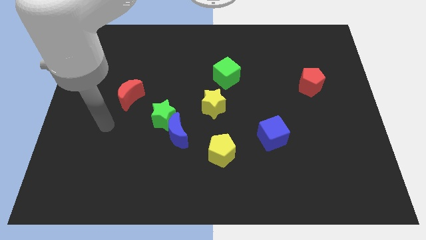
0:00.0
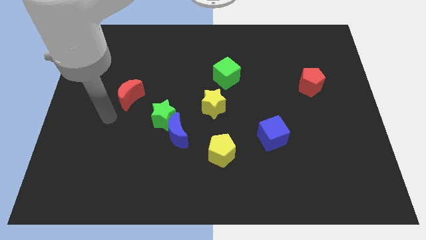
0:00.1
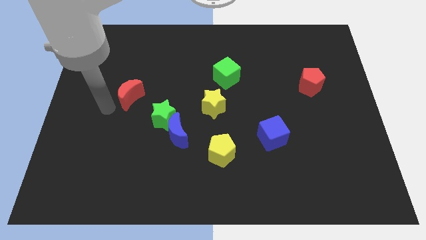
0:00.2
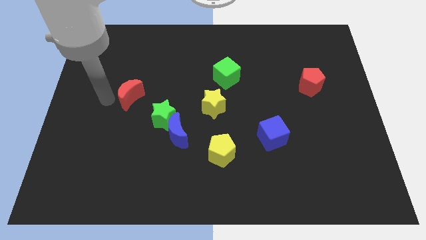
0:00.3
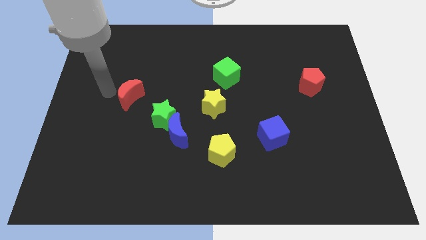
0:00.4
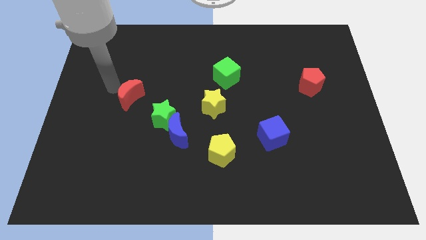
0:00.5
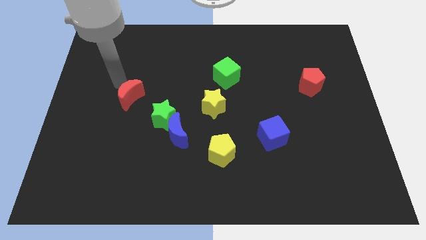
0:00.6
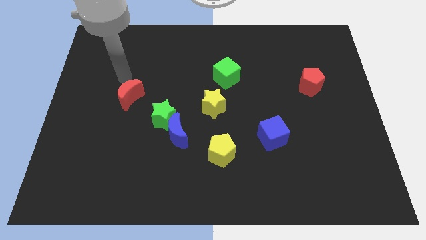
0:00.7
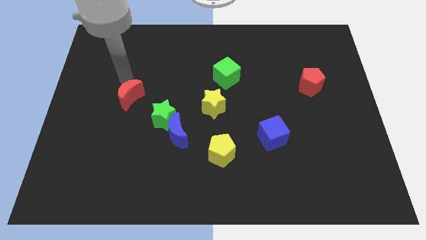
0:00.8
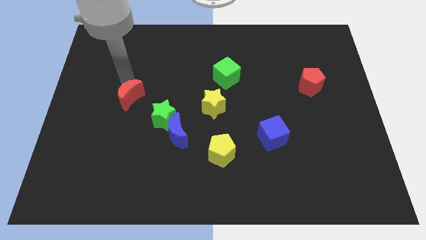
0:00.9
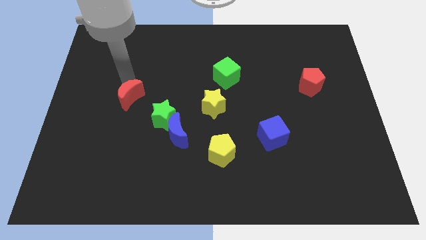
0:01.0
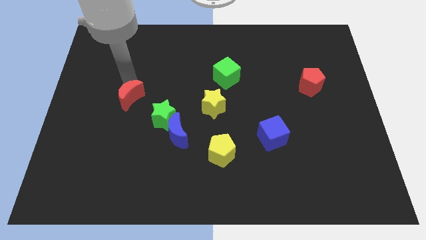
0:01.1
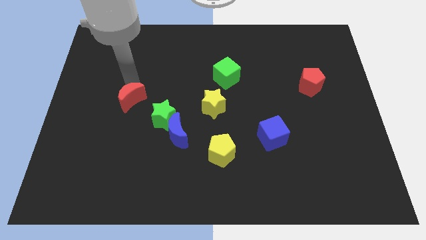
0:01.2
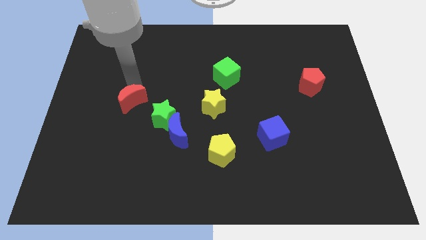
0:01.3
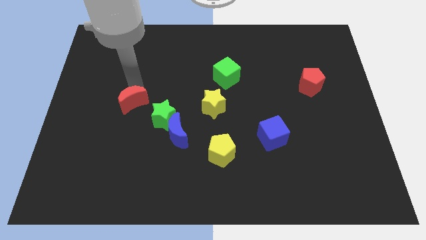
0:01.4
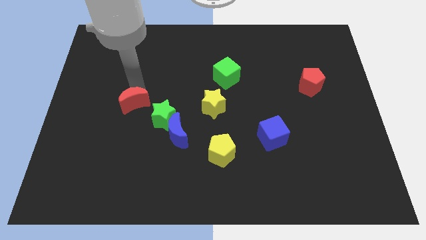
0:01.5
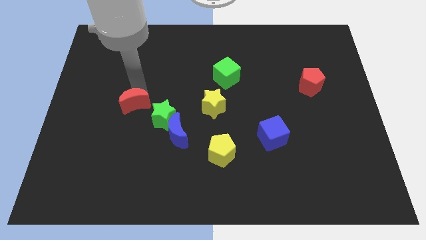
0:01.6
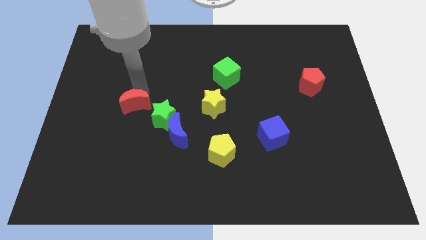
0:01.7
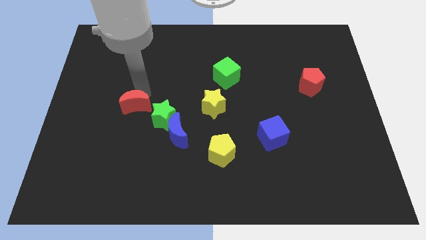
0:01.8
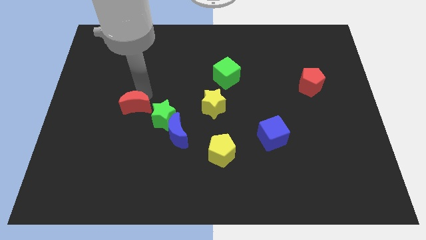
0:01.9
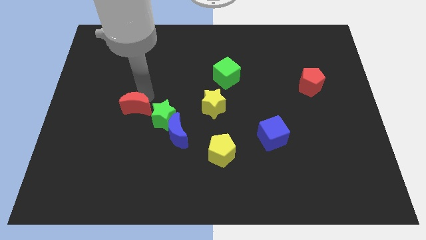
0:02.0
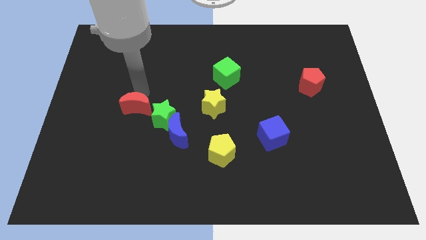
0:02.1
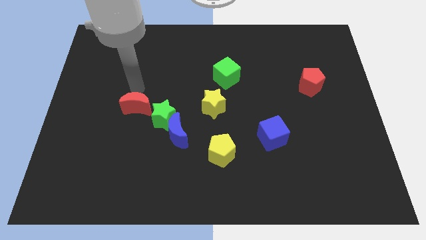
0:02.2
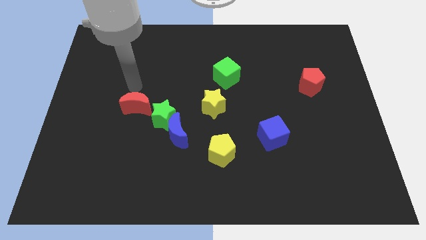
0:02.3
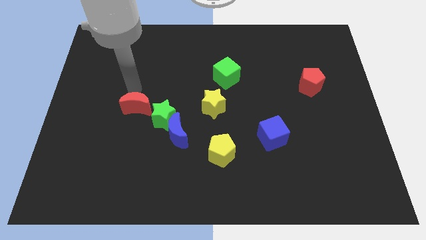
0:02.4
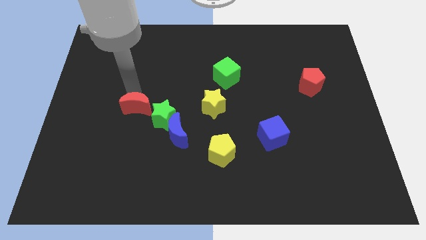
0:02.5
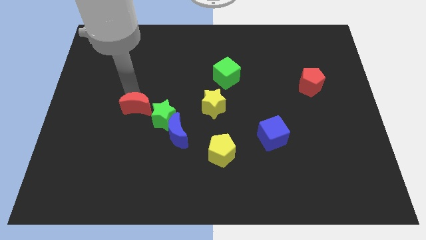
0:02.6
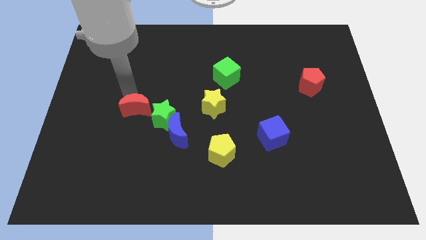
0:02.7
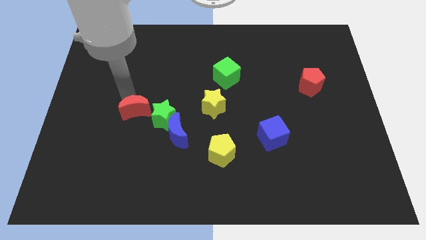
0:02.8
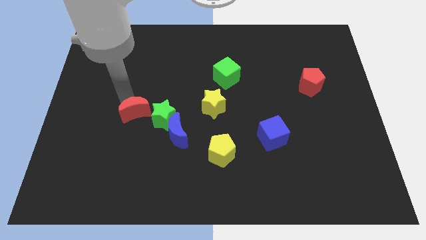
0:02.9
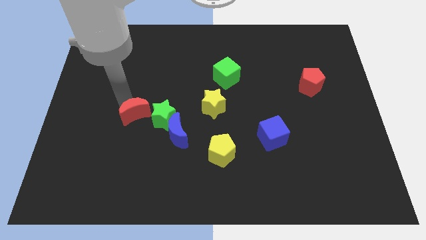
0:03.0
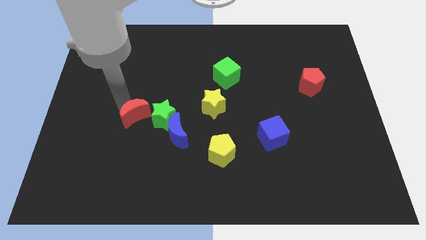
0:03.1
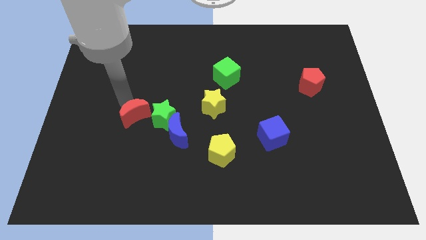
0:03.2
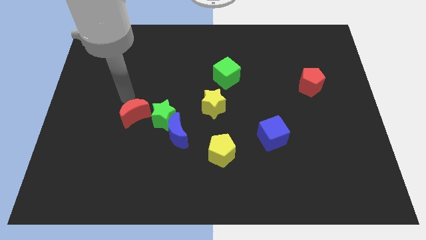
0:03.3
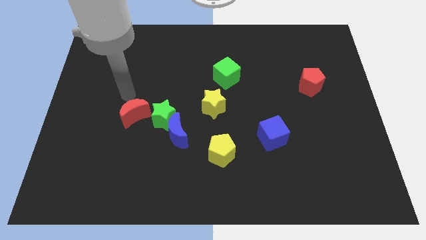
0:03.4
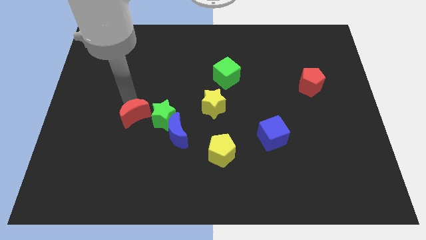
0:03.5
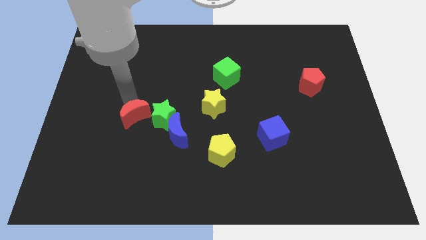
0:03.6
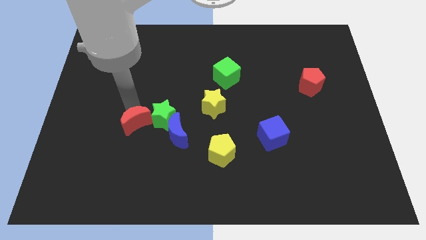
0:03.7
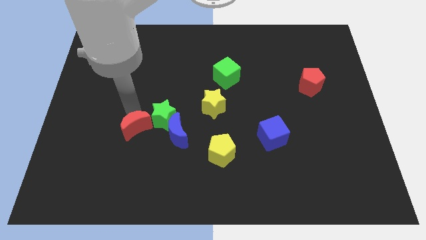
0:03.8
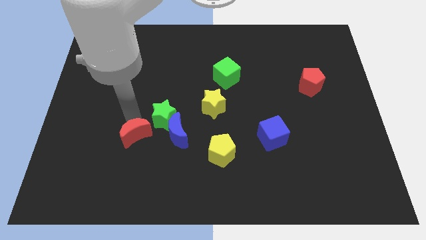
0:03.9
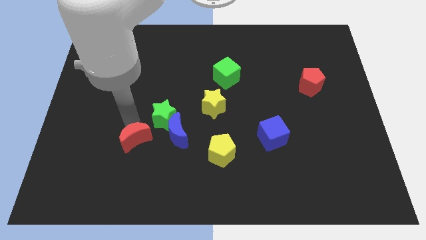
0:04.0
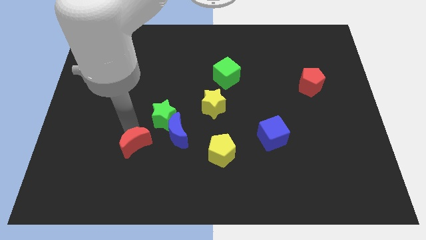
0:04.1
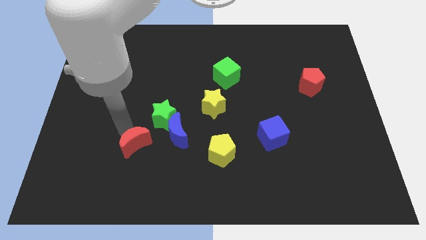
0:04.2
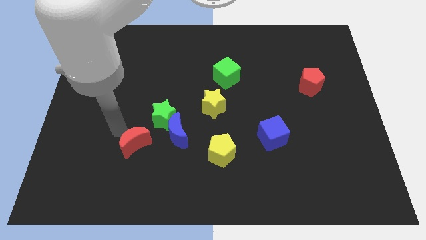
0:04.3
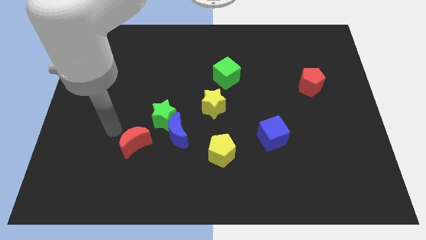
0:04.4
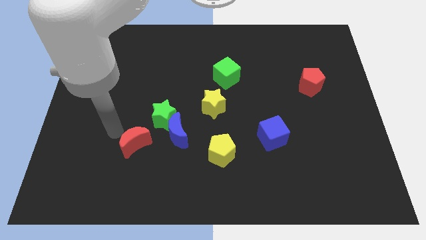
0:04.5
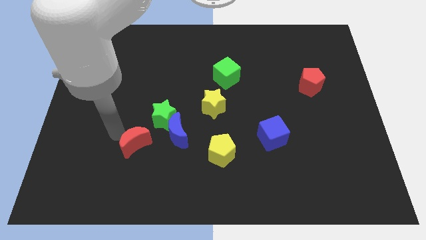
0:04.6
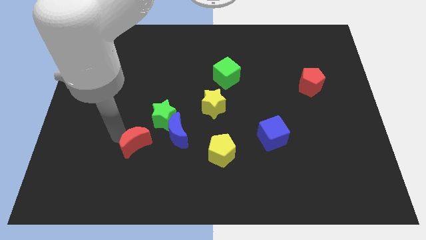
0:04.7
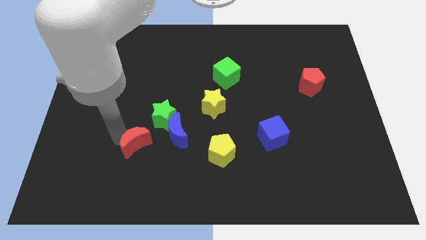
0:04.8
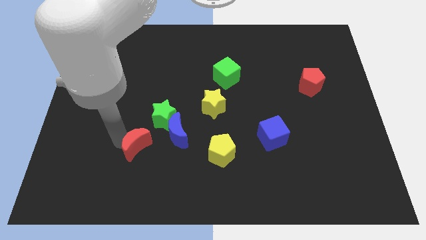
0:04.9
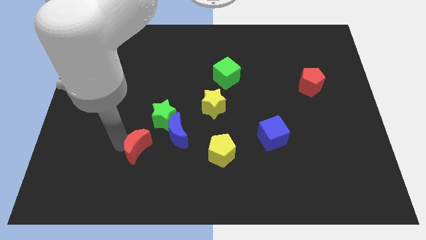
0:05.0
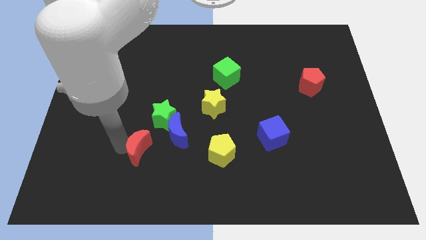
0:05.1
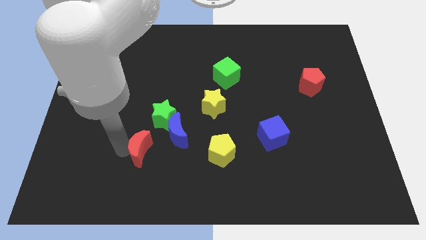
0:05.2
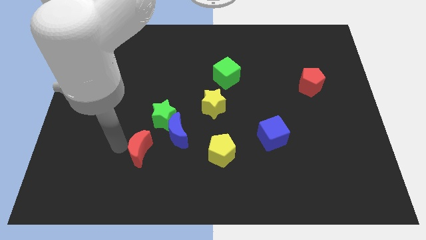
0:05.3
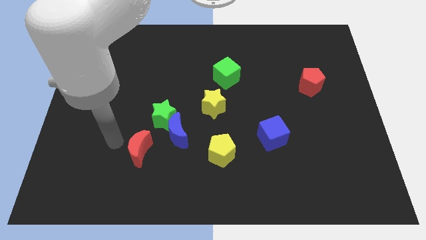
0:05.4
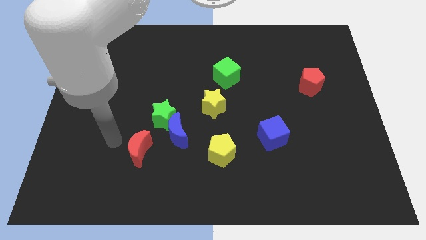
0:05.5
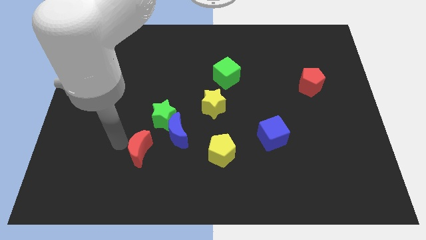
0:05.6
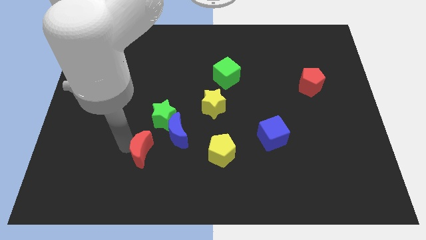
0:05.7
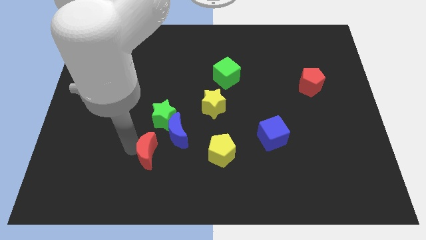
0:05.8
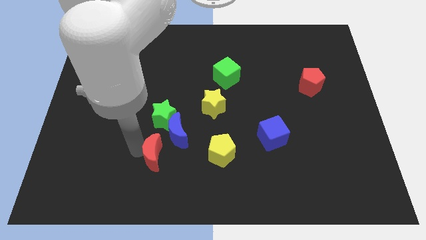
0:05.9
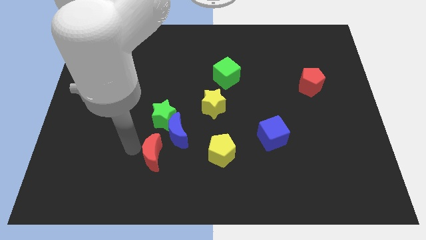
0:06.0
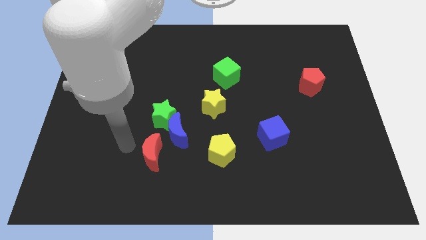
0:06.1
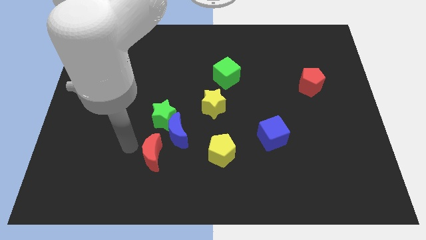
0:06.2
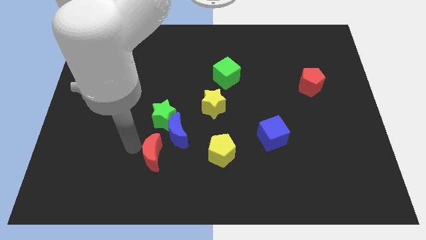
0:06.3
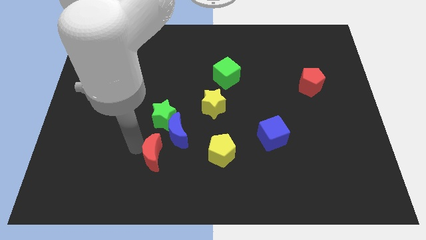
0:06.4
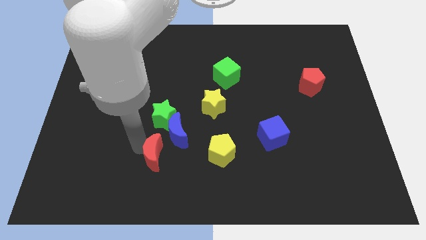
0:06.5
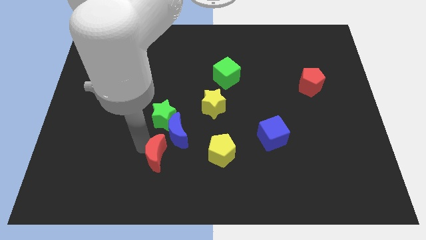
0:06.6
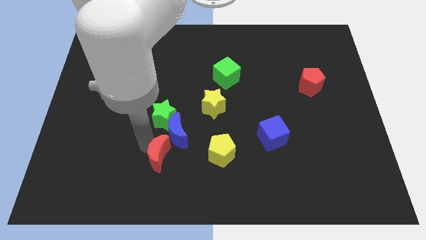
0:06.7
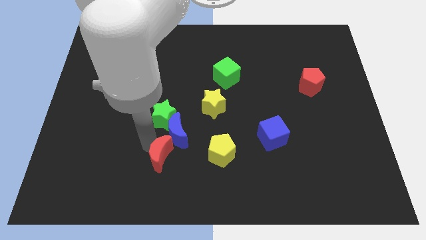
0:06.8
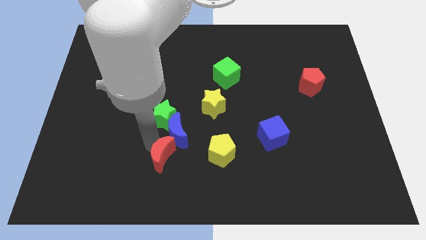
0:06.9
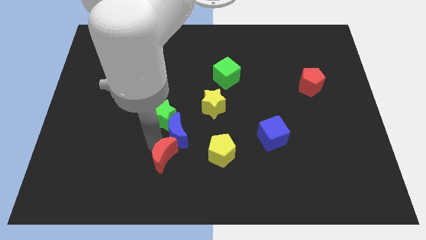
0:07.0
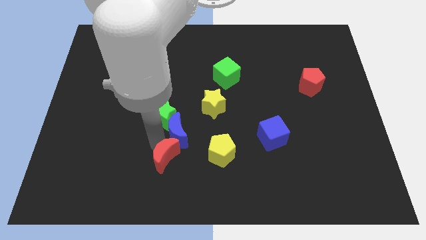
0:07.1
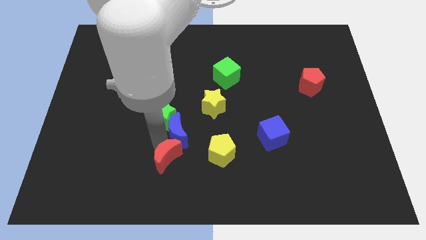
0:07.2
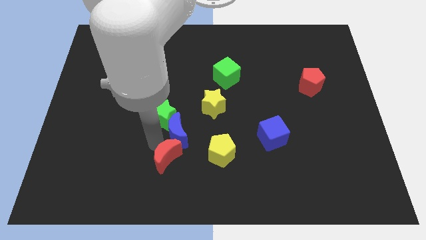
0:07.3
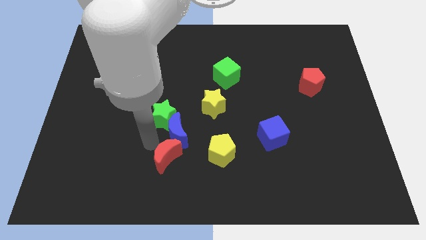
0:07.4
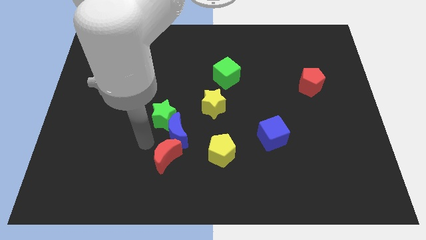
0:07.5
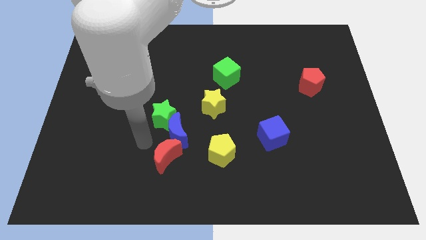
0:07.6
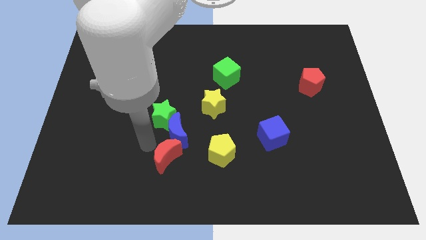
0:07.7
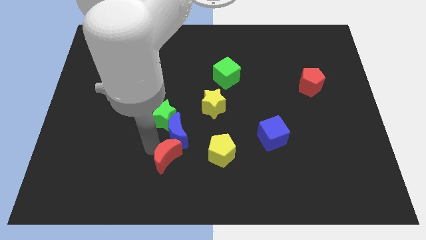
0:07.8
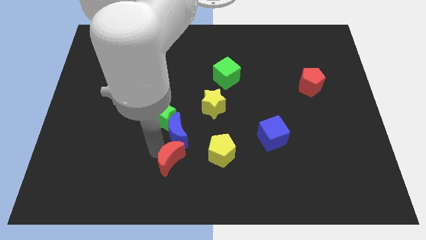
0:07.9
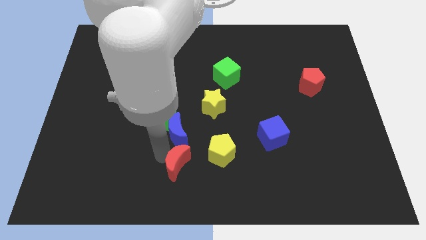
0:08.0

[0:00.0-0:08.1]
push the red moon downwards and then right

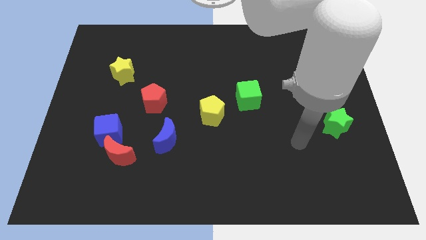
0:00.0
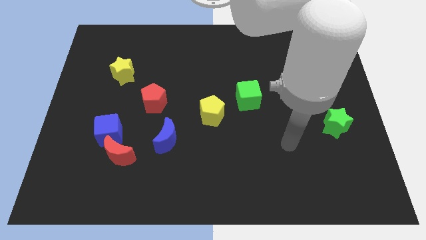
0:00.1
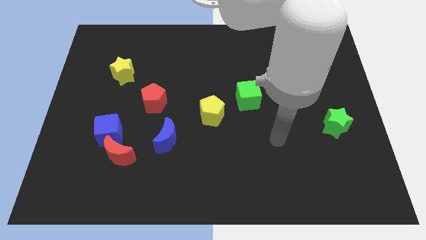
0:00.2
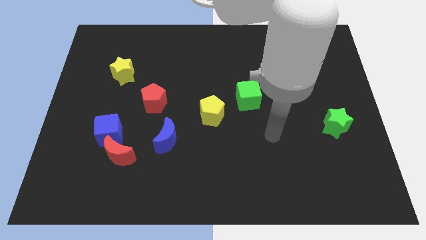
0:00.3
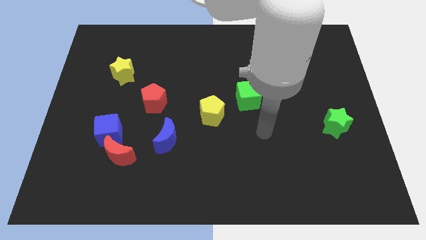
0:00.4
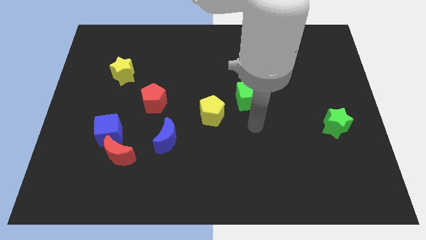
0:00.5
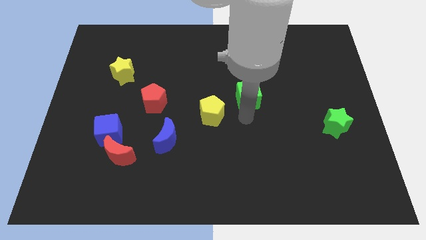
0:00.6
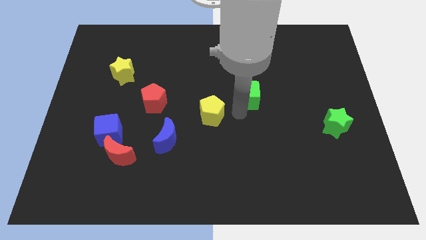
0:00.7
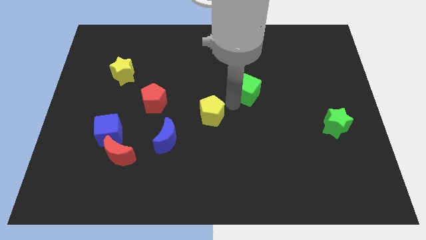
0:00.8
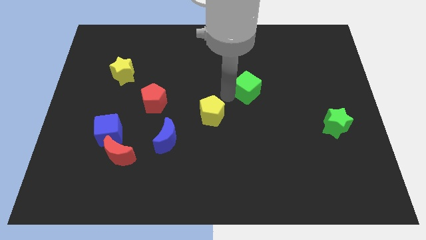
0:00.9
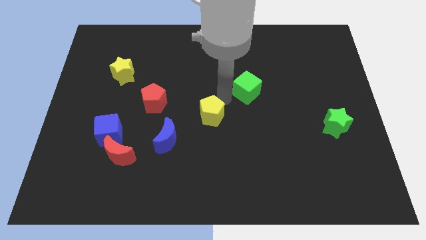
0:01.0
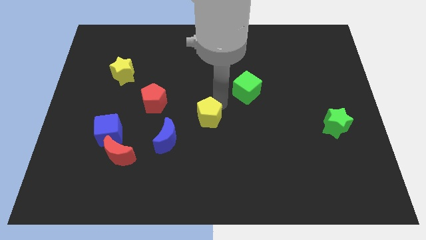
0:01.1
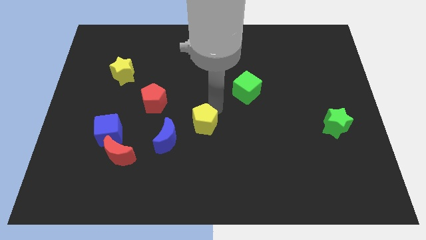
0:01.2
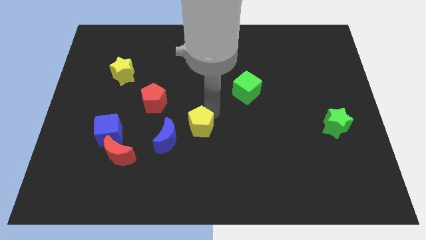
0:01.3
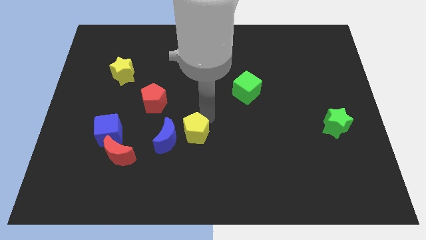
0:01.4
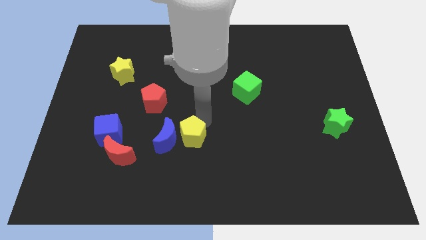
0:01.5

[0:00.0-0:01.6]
push the yellow pentagon a little down and to the left diagonally
